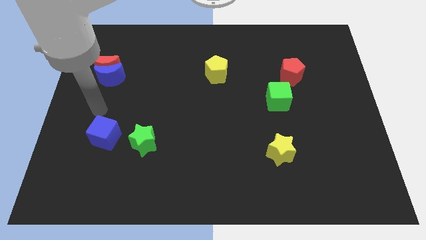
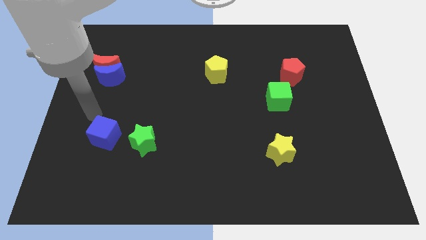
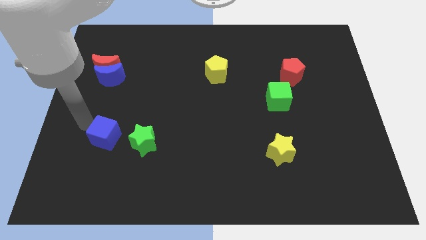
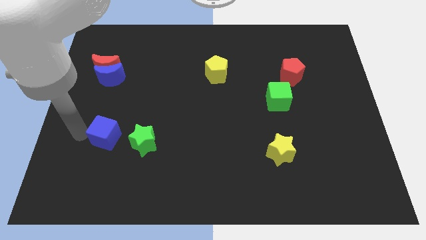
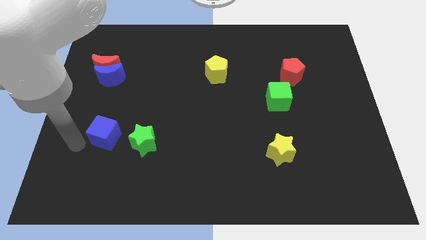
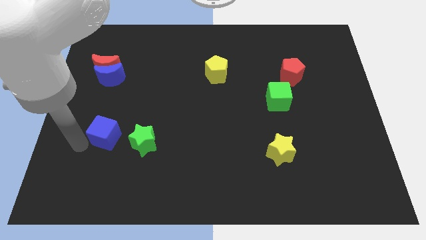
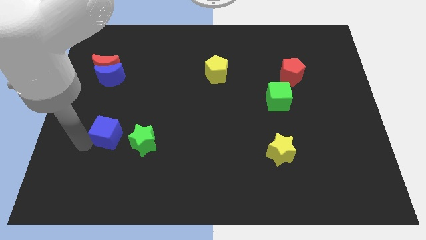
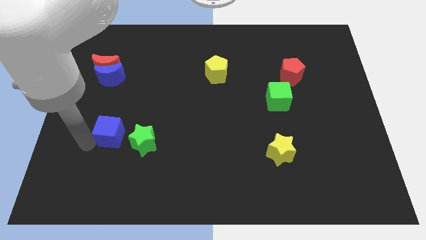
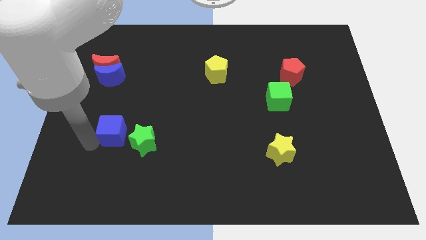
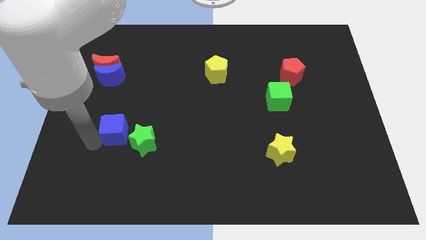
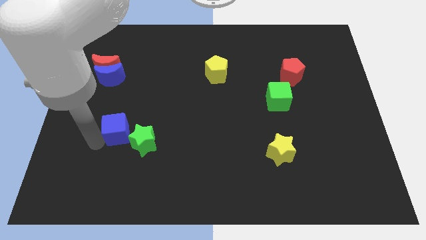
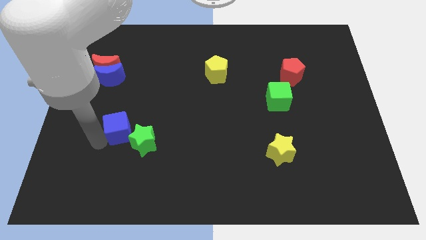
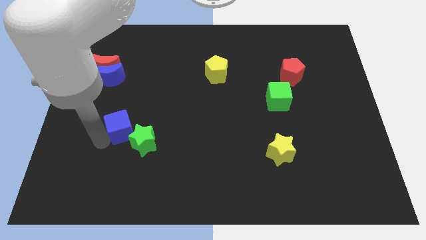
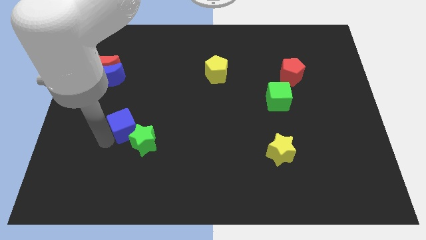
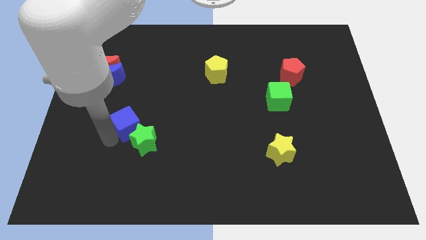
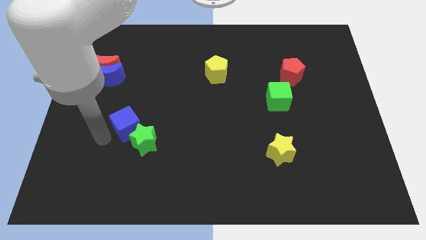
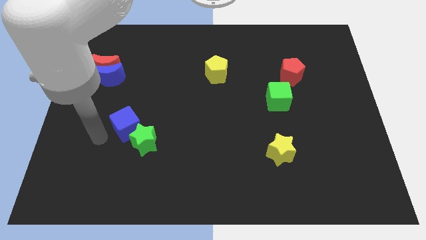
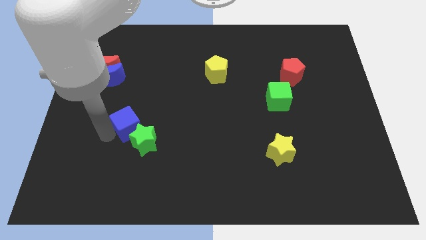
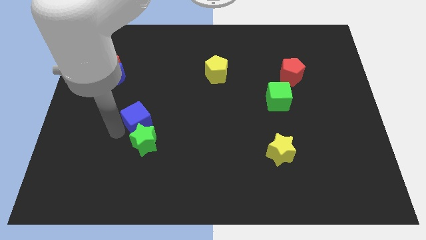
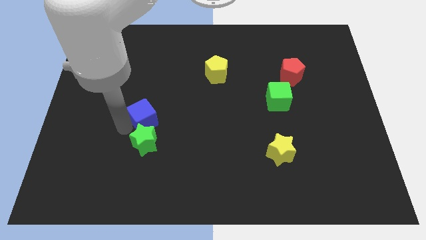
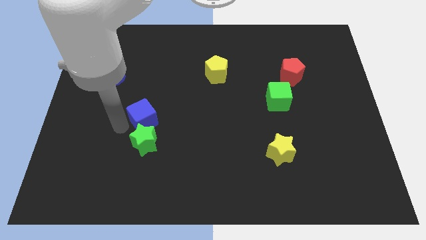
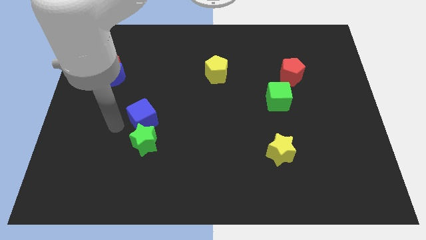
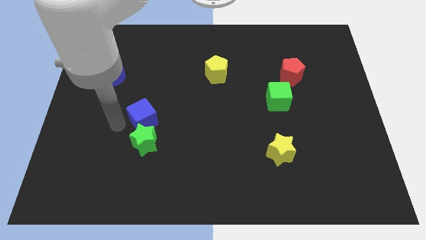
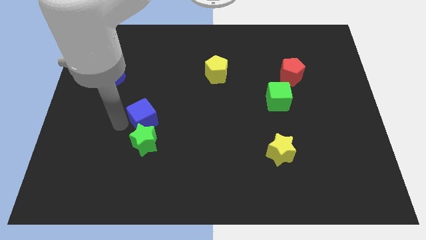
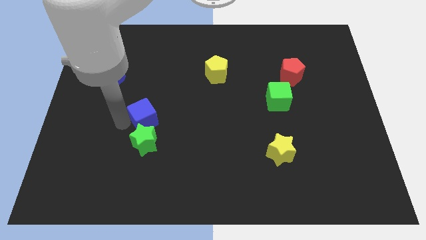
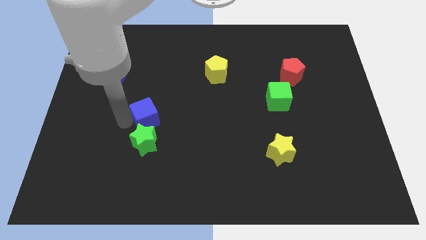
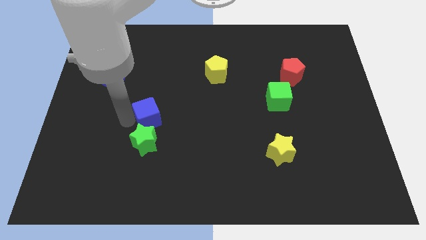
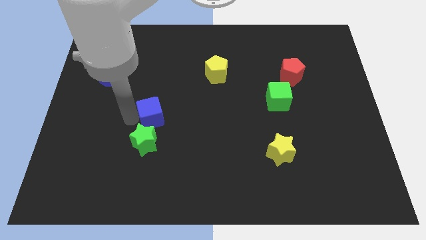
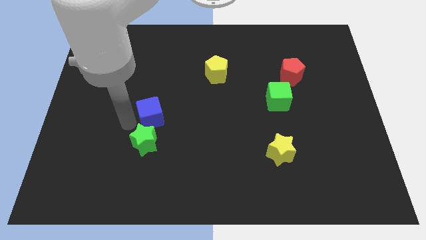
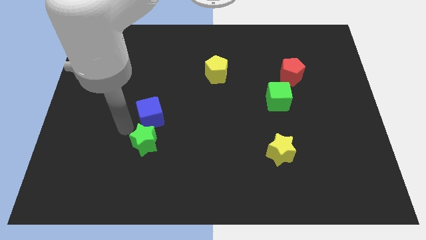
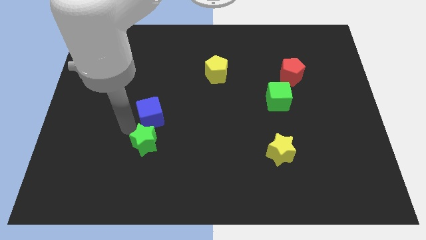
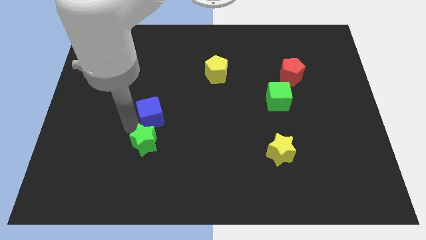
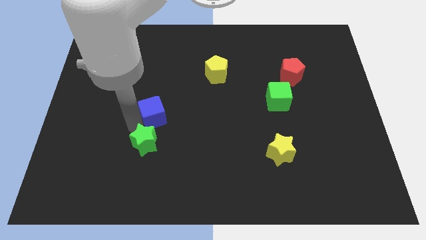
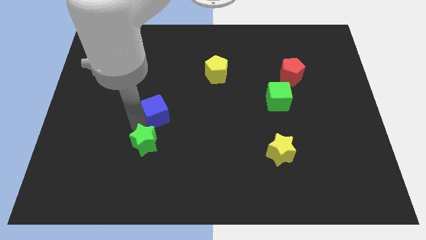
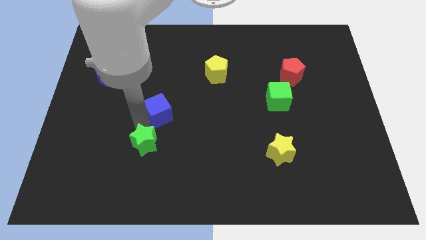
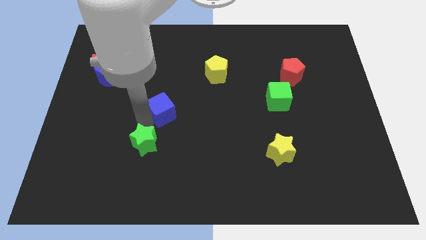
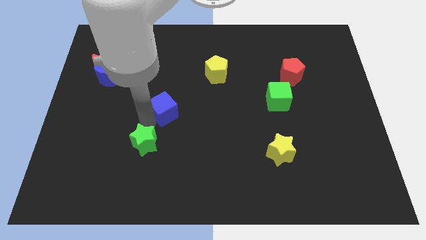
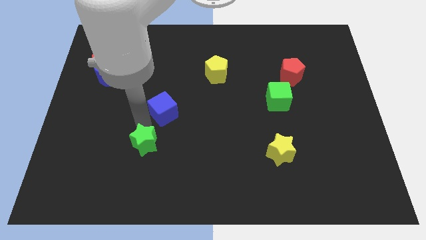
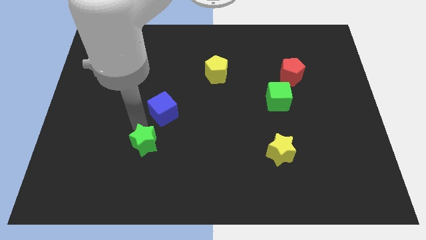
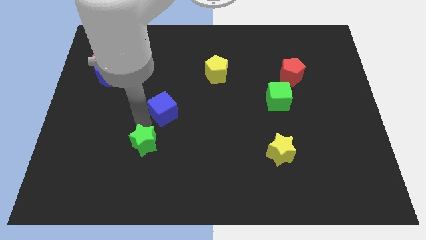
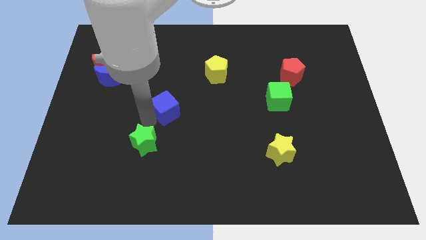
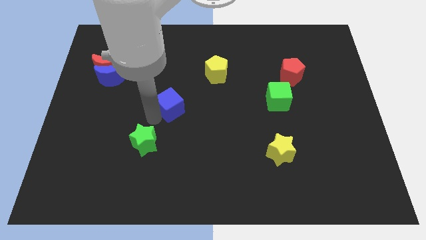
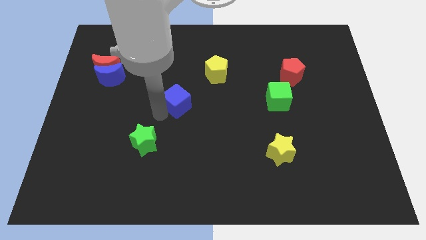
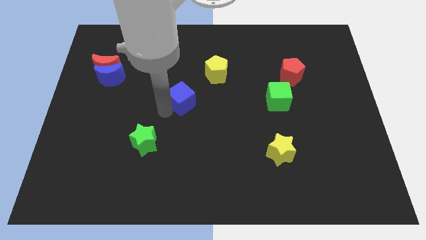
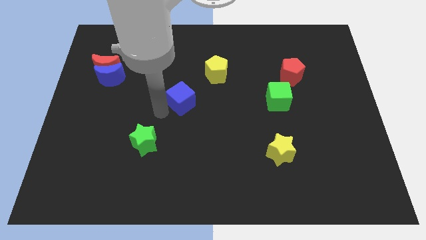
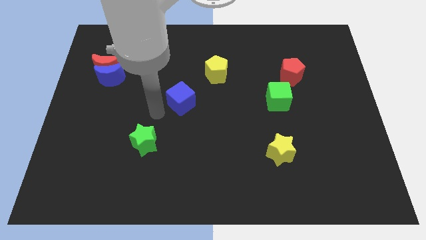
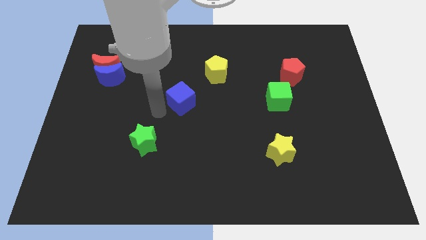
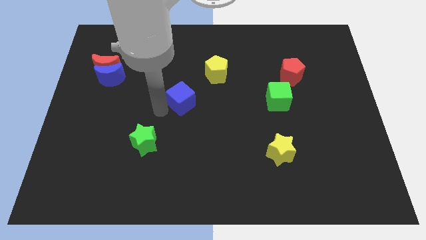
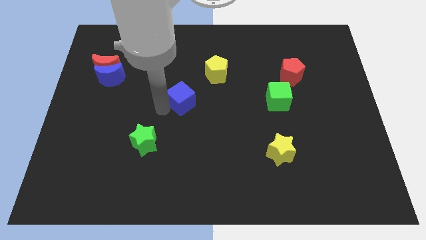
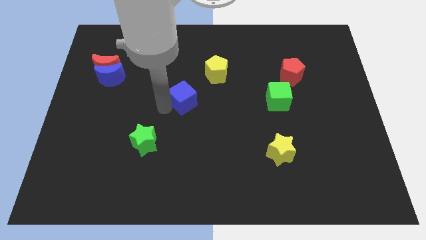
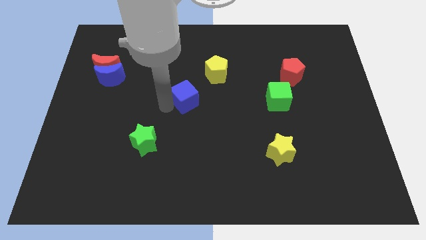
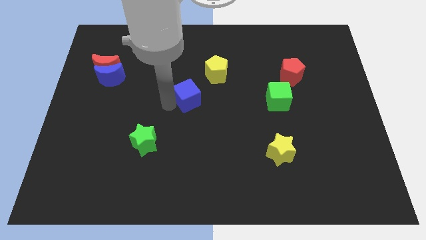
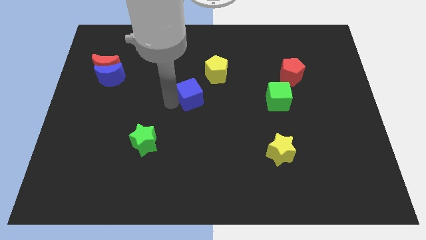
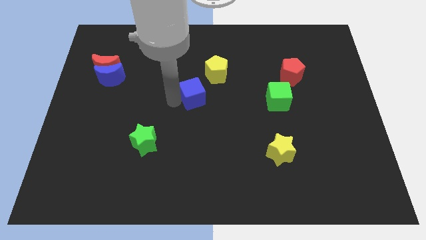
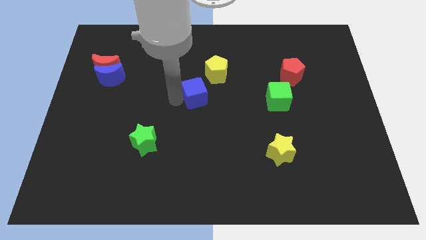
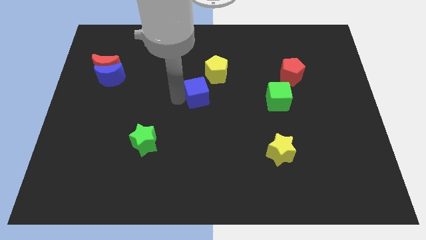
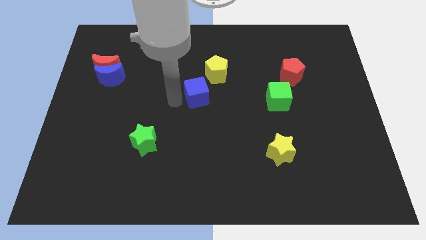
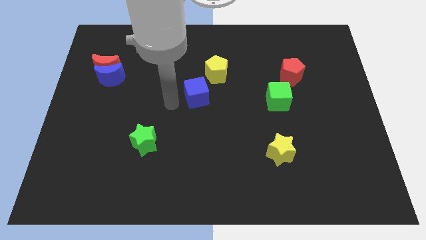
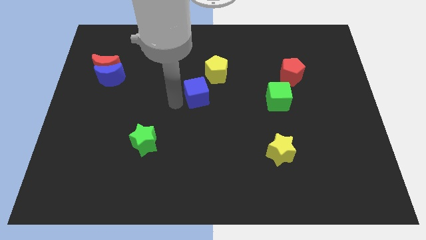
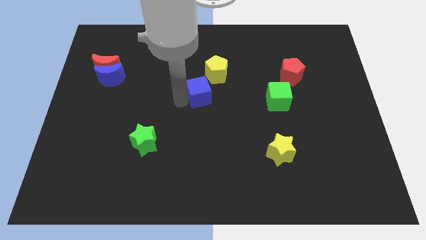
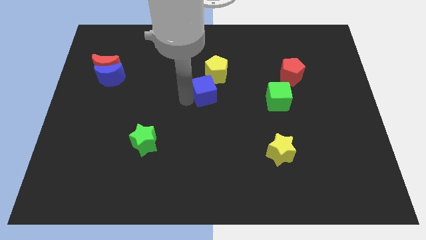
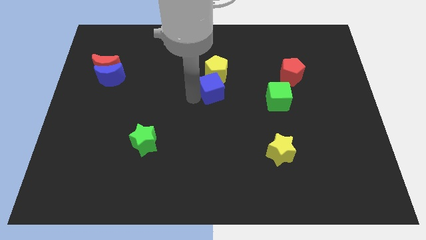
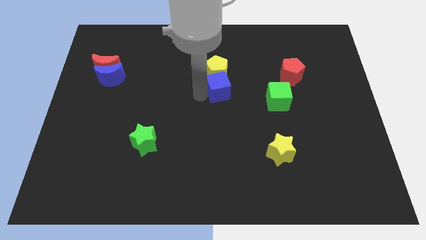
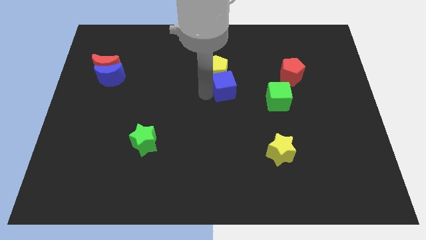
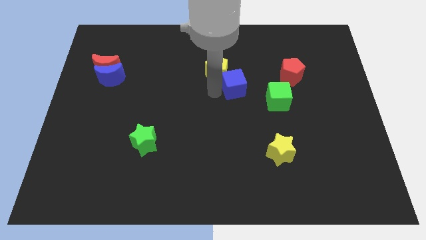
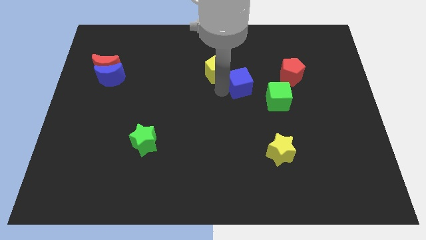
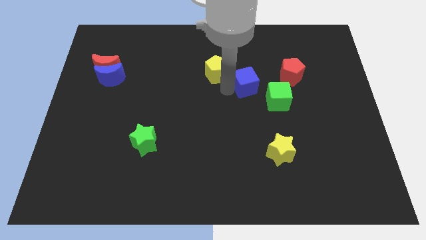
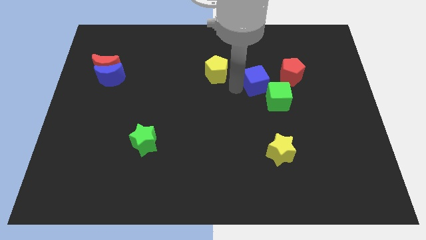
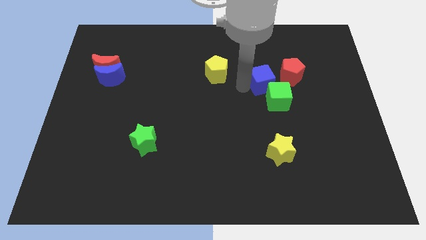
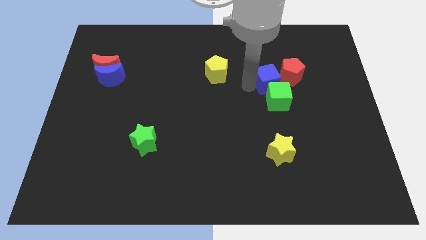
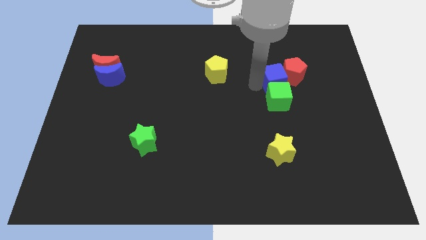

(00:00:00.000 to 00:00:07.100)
push the blue cube next to the red pentagon

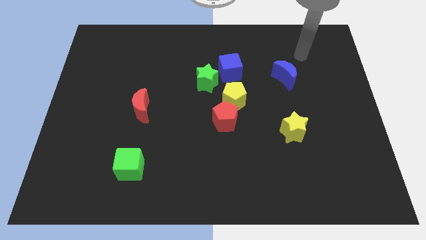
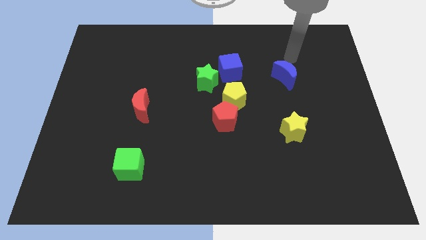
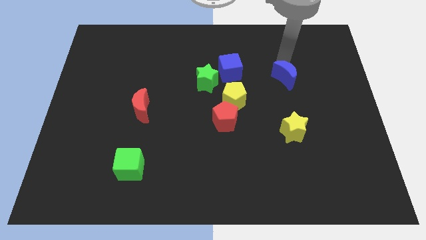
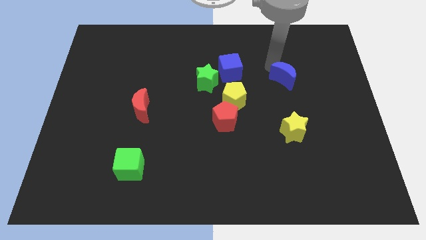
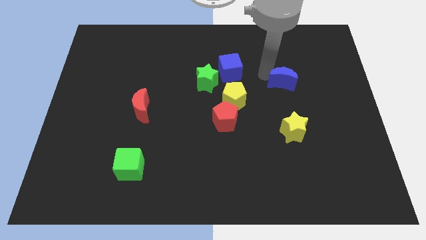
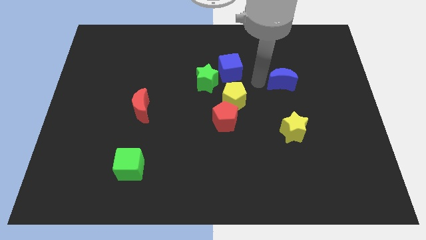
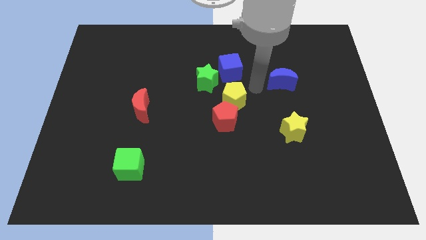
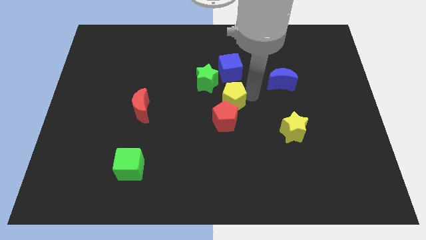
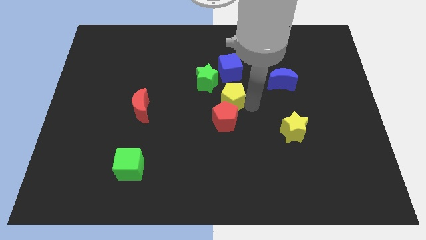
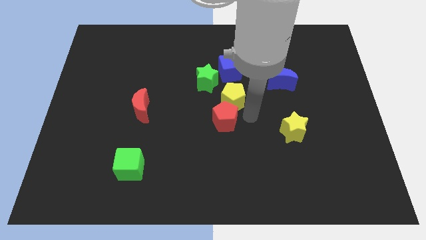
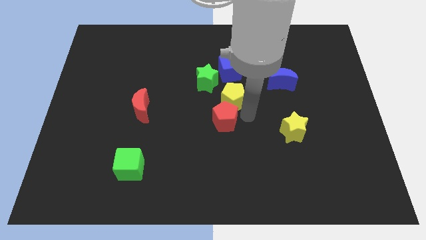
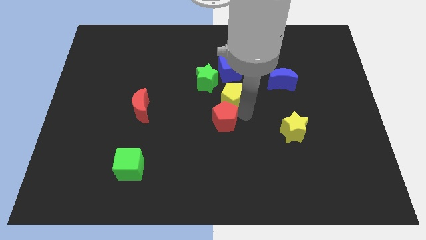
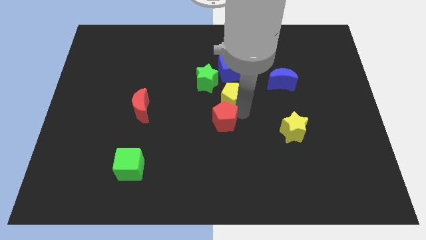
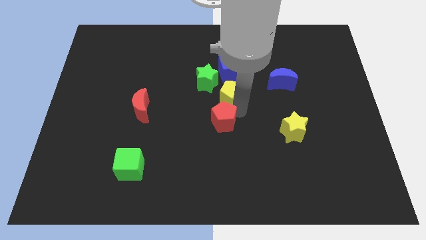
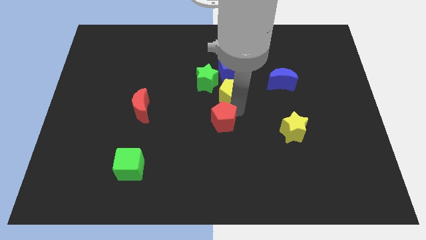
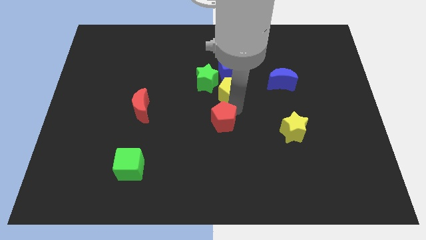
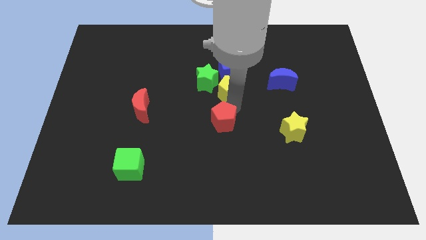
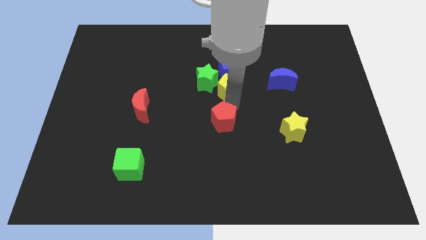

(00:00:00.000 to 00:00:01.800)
move the yellow pentagon to the green star
